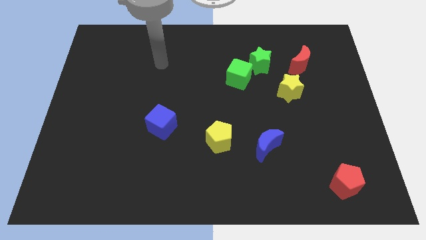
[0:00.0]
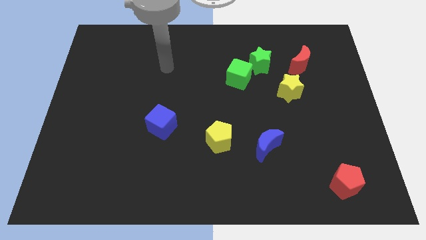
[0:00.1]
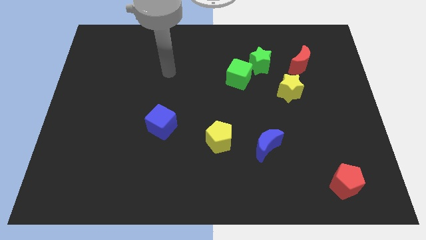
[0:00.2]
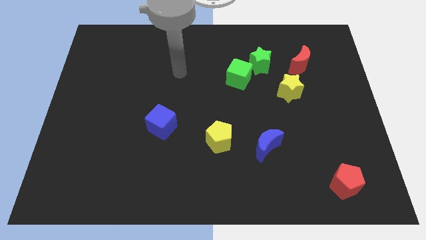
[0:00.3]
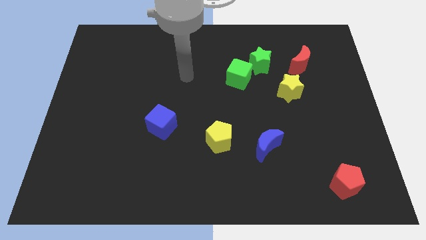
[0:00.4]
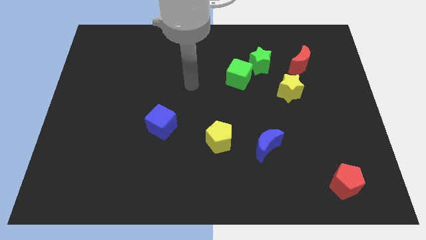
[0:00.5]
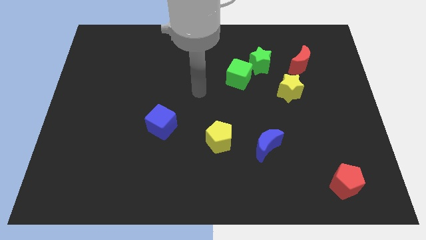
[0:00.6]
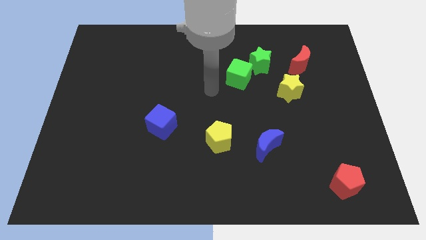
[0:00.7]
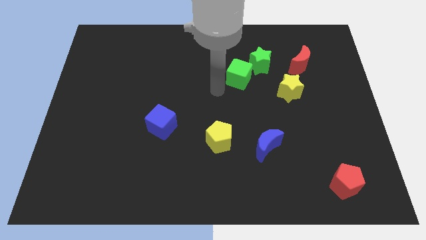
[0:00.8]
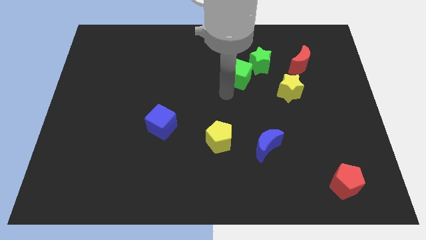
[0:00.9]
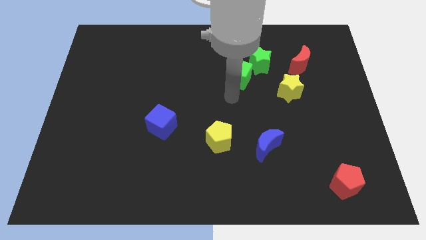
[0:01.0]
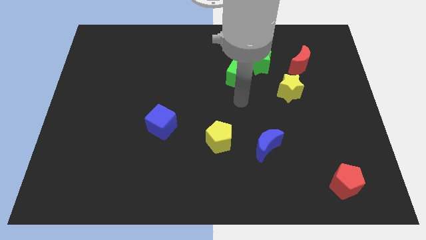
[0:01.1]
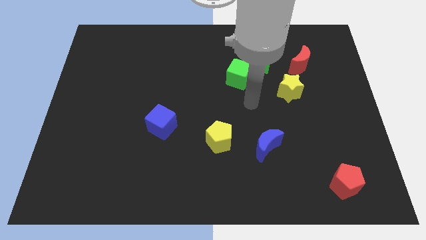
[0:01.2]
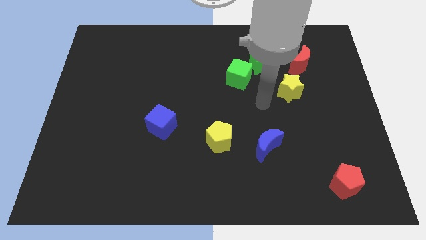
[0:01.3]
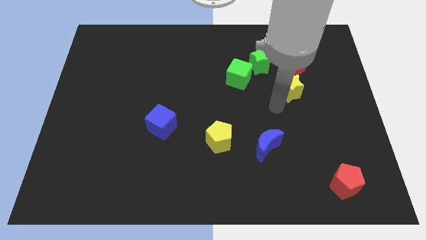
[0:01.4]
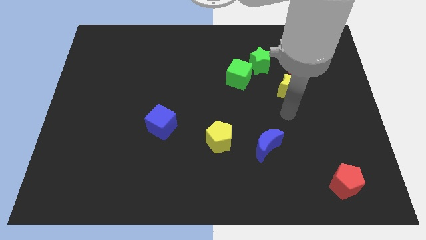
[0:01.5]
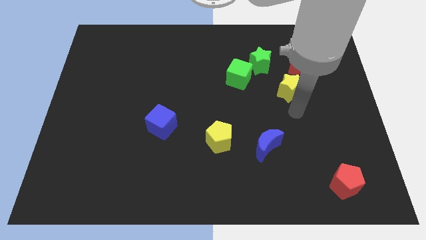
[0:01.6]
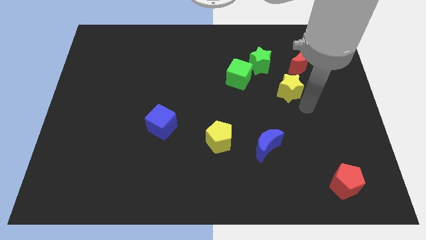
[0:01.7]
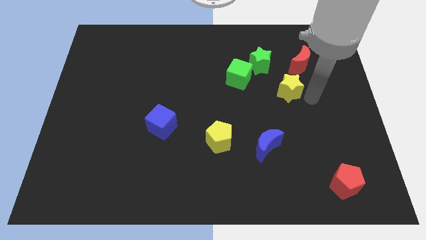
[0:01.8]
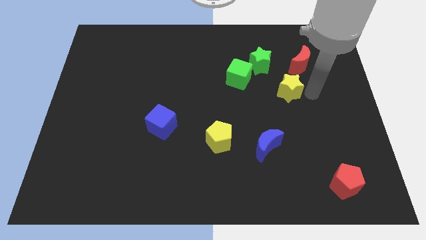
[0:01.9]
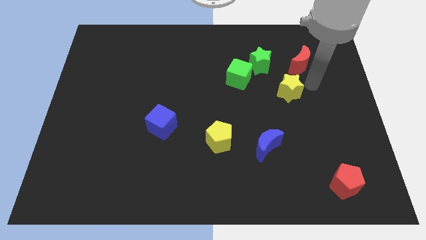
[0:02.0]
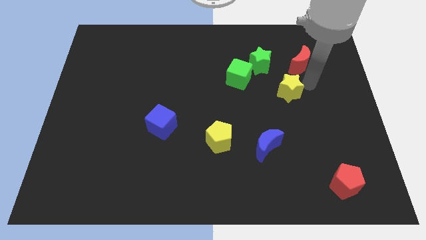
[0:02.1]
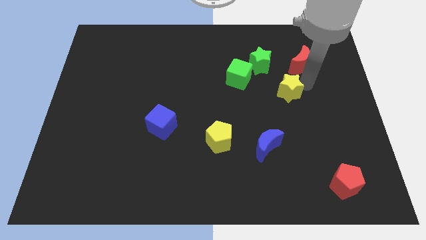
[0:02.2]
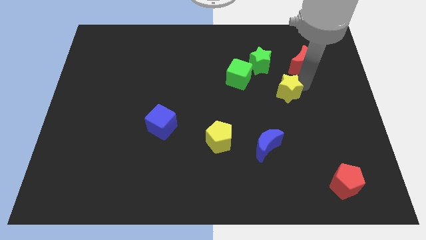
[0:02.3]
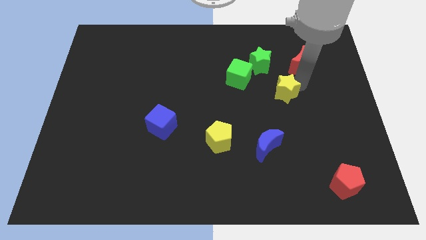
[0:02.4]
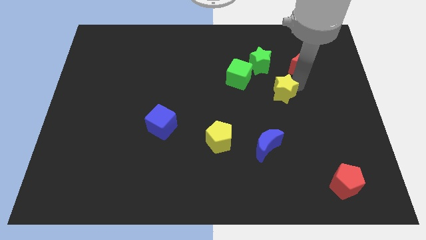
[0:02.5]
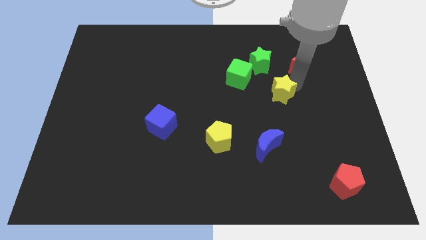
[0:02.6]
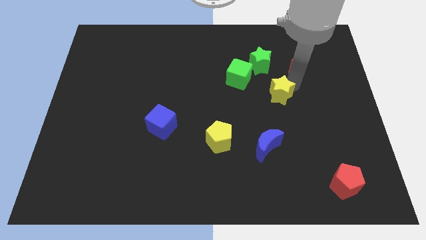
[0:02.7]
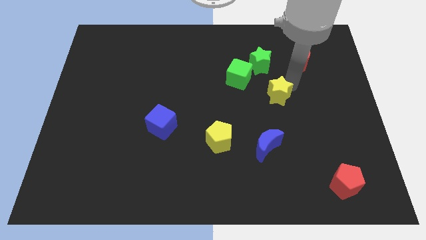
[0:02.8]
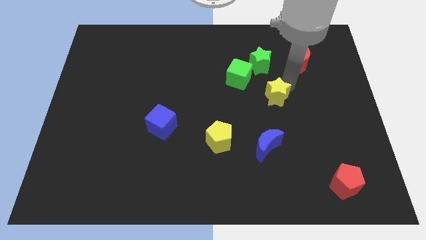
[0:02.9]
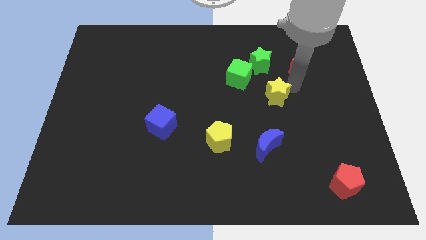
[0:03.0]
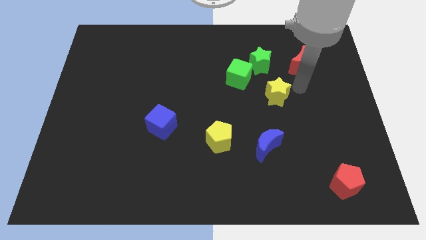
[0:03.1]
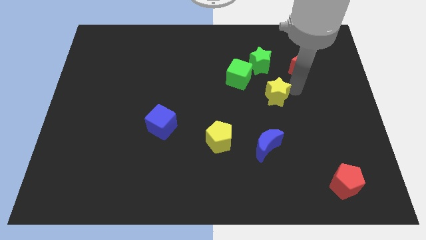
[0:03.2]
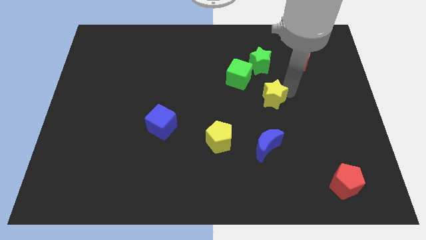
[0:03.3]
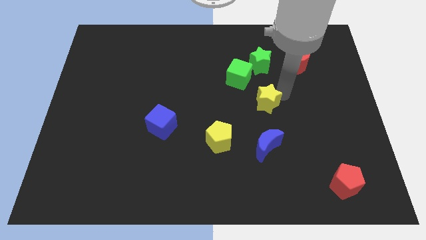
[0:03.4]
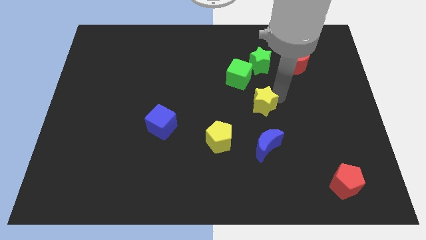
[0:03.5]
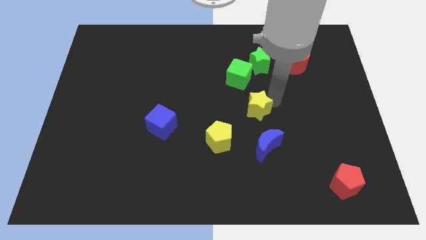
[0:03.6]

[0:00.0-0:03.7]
push the yellow star a bit to the left

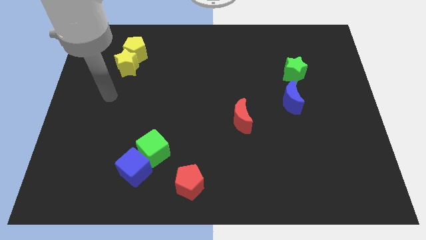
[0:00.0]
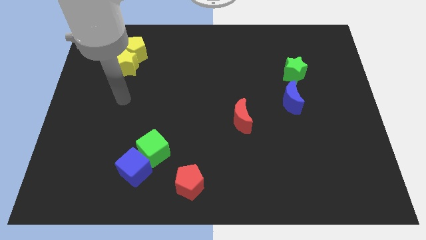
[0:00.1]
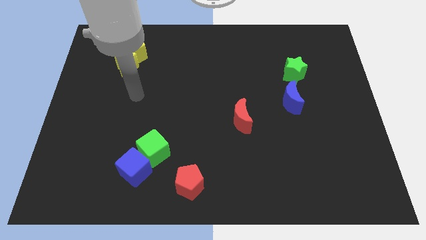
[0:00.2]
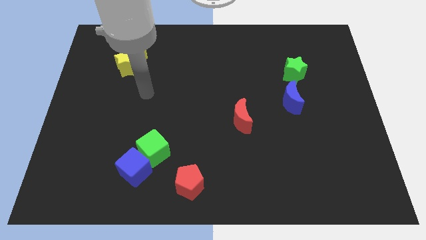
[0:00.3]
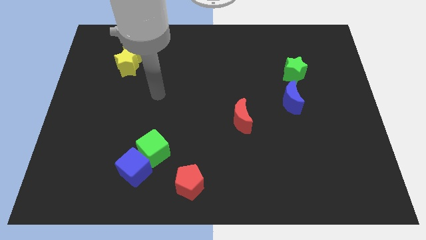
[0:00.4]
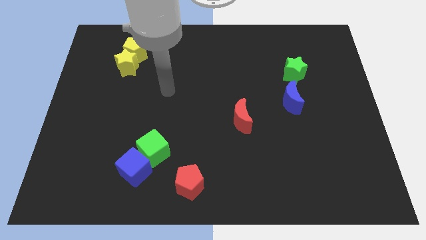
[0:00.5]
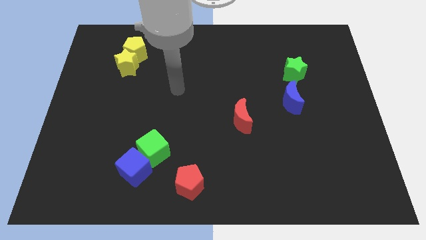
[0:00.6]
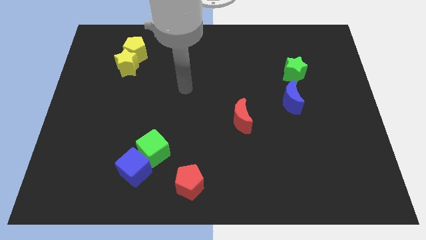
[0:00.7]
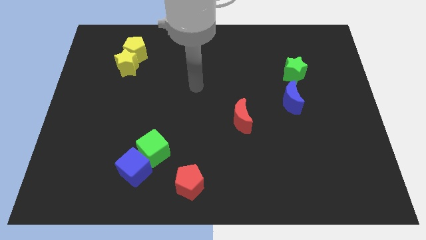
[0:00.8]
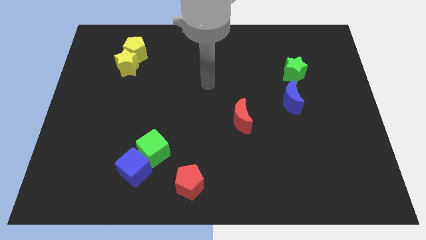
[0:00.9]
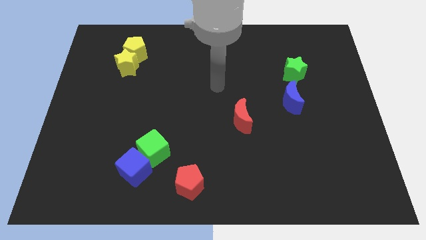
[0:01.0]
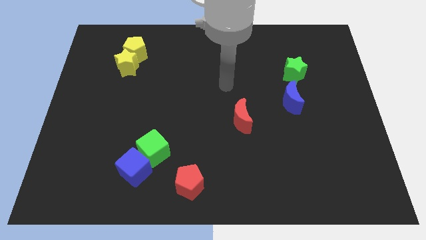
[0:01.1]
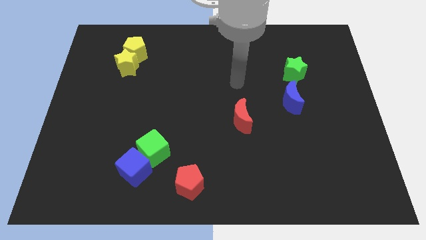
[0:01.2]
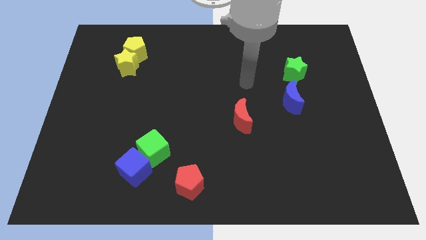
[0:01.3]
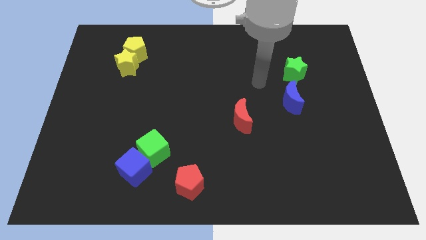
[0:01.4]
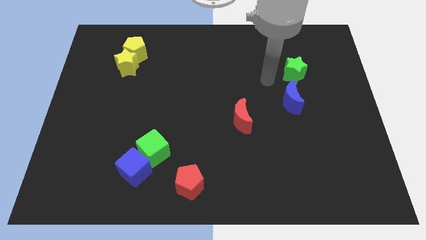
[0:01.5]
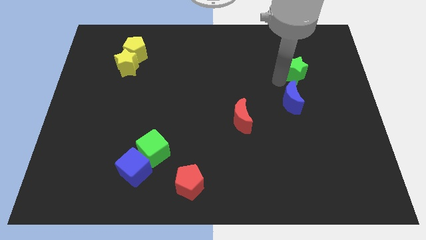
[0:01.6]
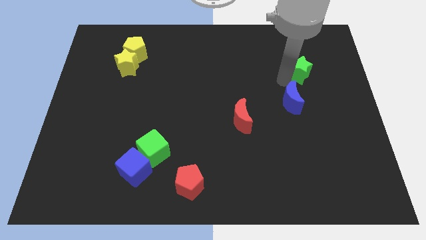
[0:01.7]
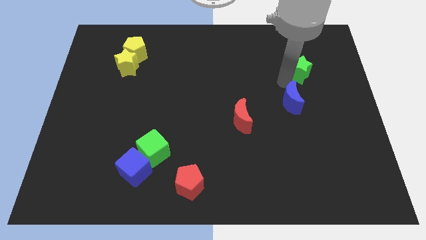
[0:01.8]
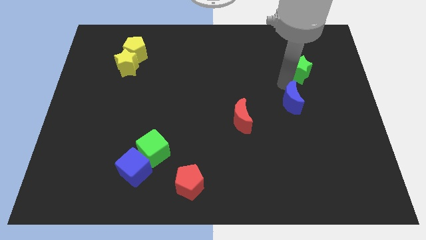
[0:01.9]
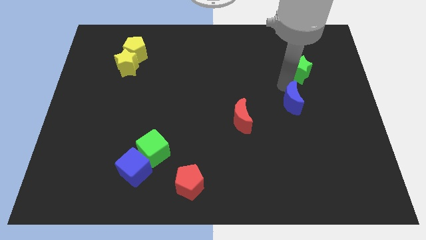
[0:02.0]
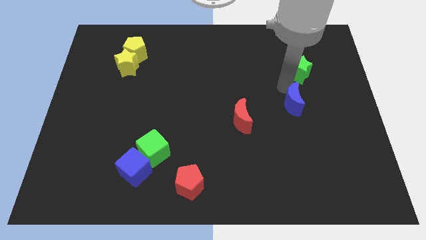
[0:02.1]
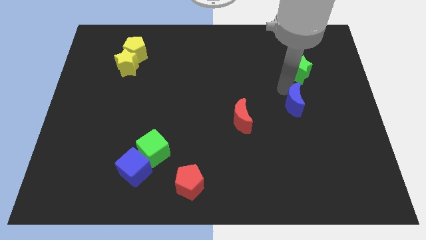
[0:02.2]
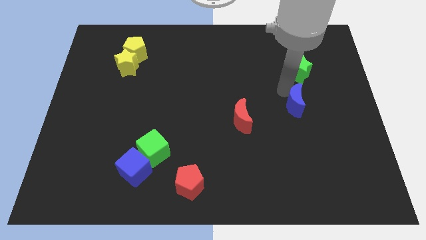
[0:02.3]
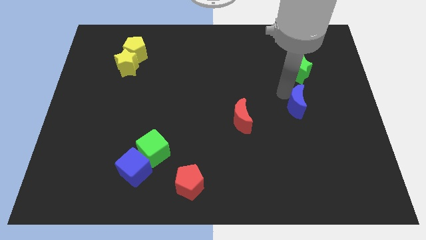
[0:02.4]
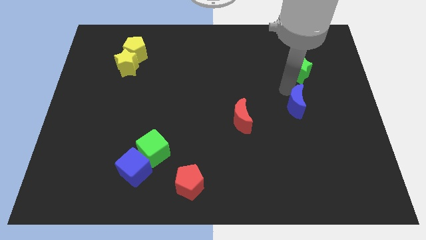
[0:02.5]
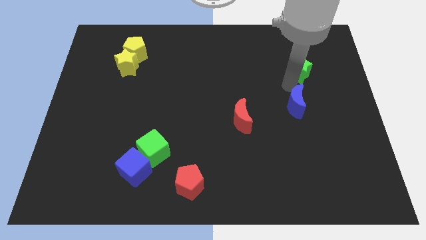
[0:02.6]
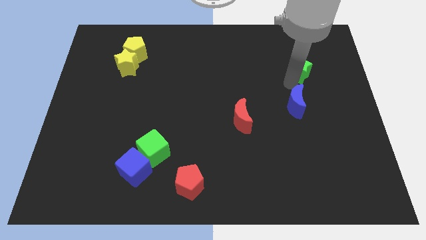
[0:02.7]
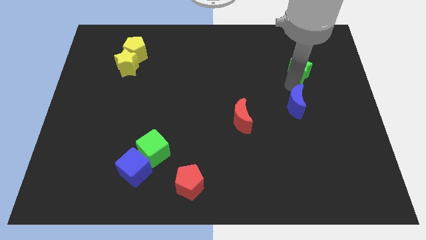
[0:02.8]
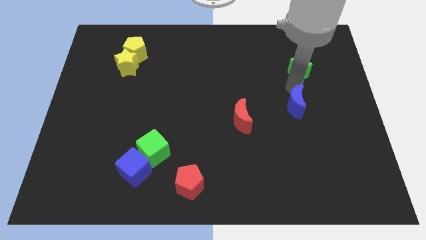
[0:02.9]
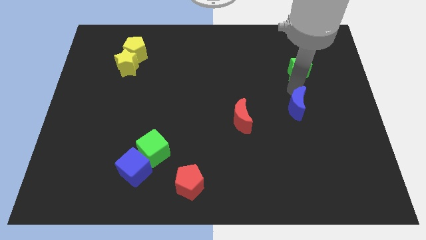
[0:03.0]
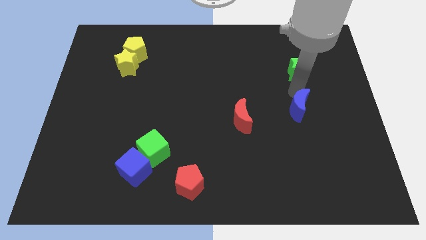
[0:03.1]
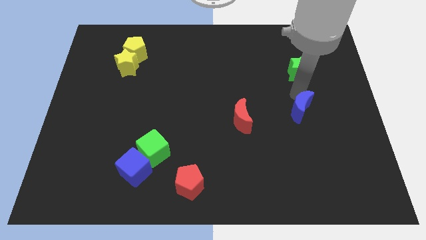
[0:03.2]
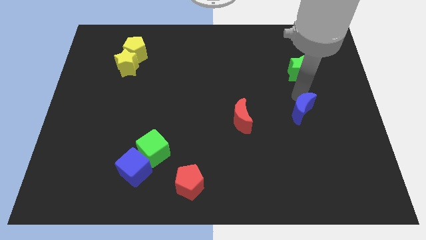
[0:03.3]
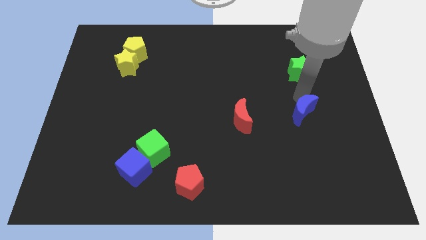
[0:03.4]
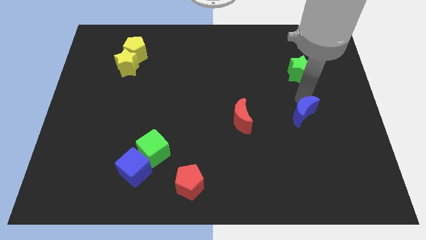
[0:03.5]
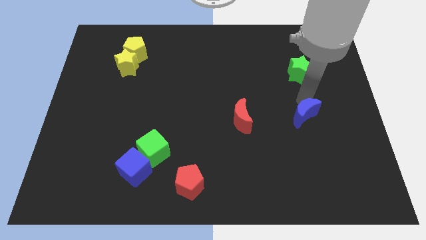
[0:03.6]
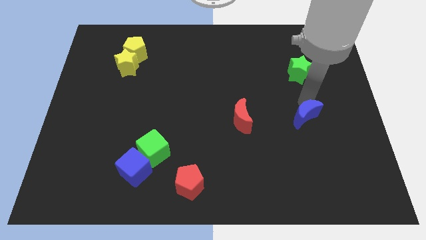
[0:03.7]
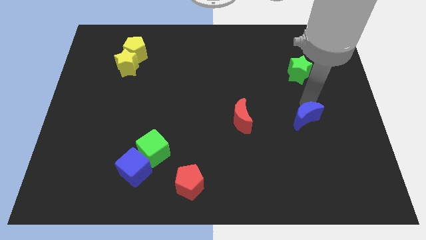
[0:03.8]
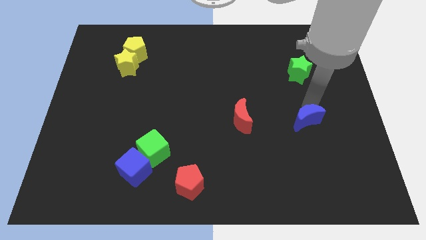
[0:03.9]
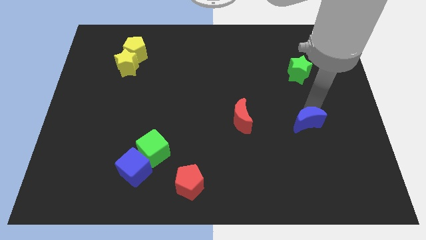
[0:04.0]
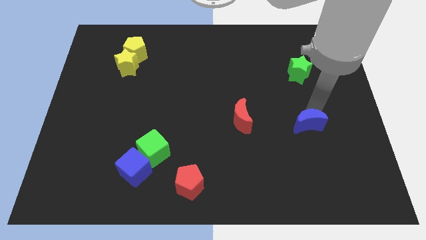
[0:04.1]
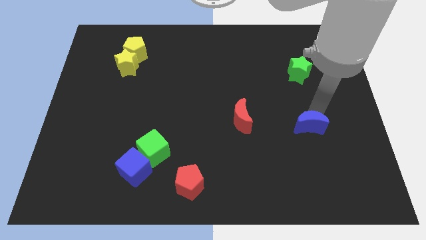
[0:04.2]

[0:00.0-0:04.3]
slide the blue moon a bit downwards

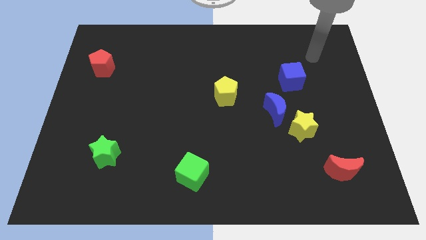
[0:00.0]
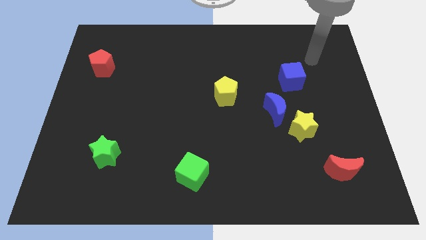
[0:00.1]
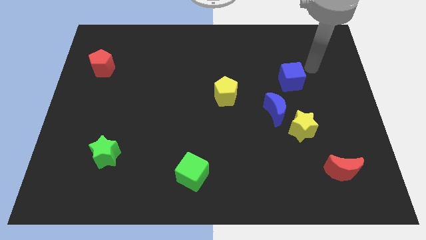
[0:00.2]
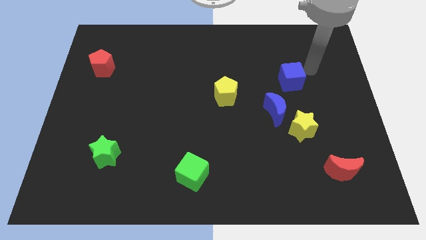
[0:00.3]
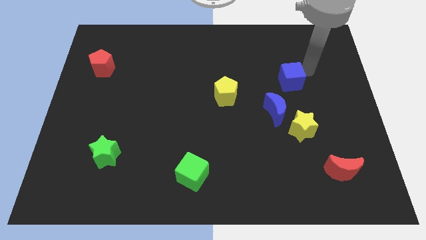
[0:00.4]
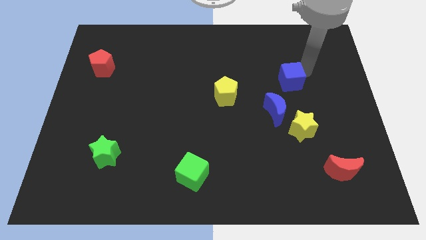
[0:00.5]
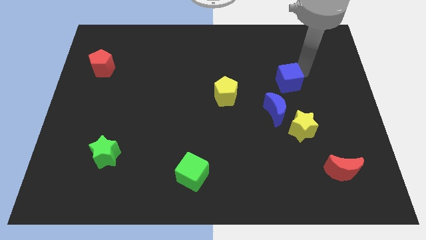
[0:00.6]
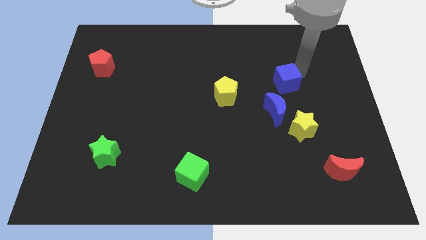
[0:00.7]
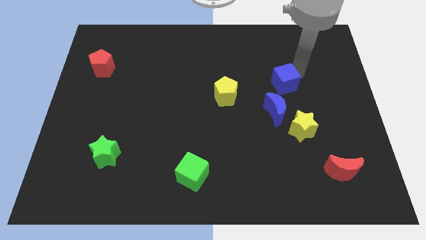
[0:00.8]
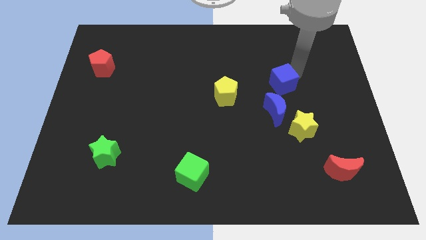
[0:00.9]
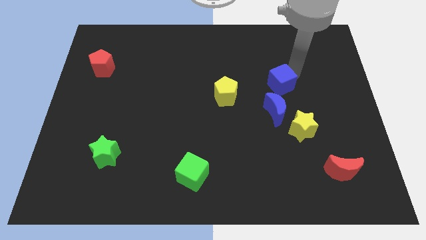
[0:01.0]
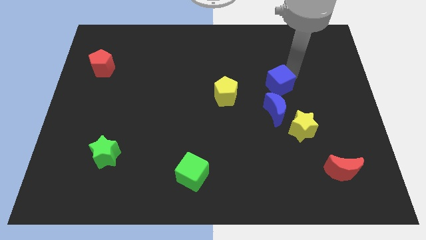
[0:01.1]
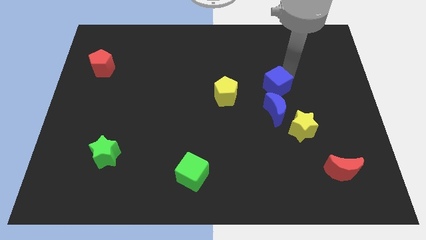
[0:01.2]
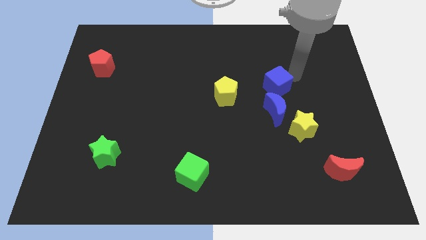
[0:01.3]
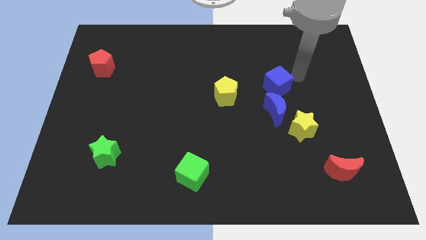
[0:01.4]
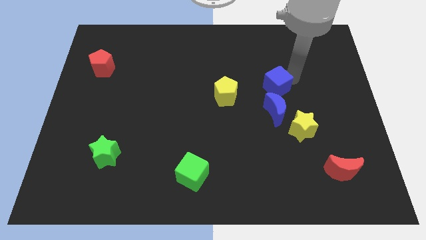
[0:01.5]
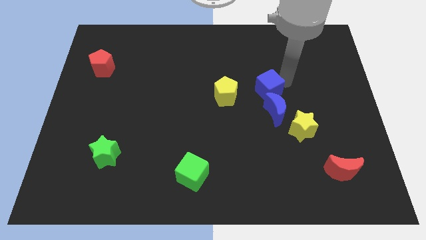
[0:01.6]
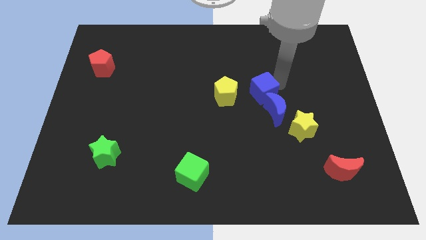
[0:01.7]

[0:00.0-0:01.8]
move the blue cube a bit diagonally downwards and left
